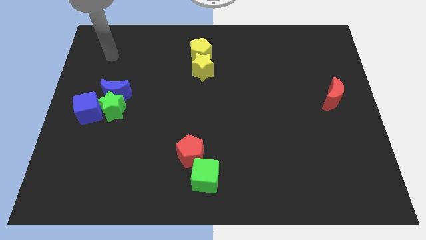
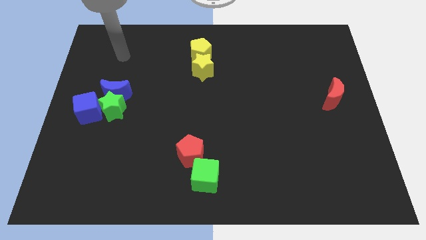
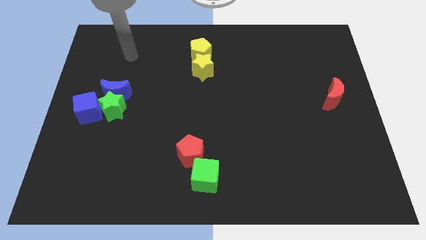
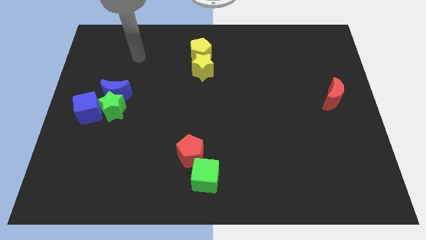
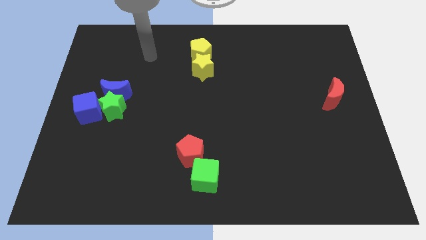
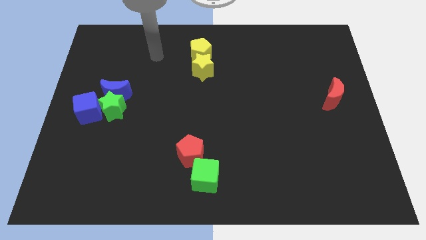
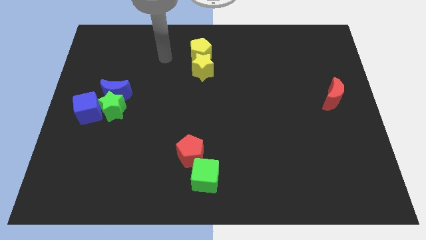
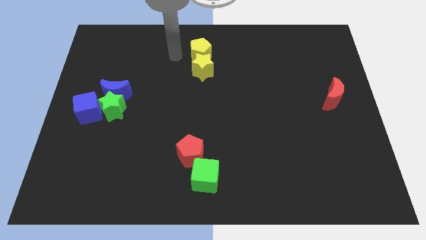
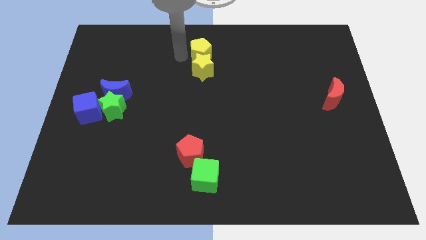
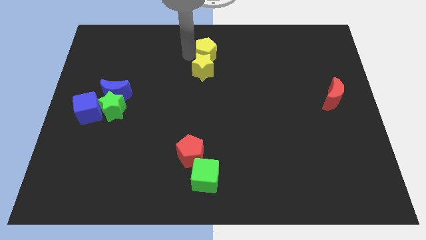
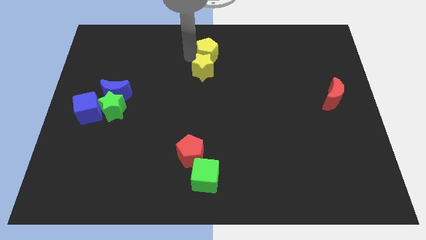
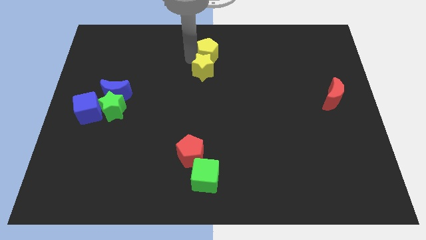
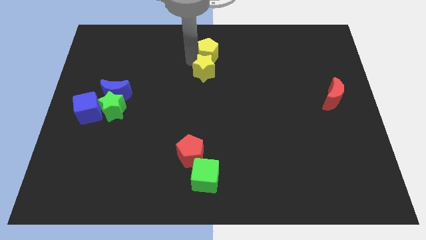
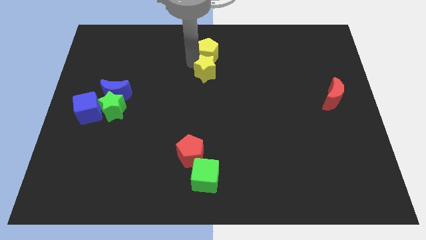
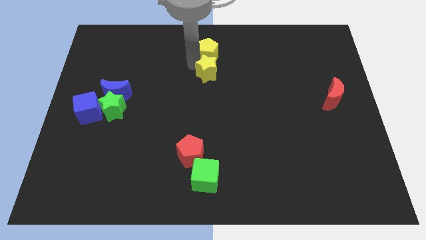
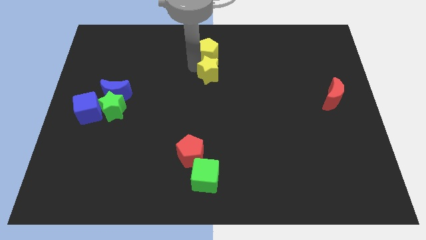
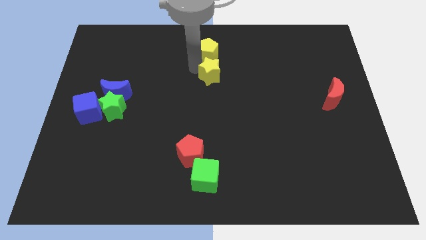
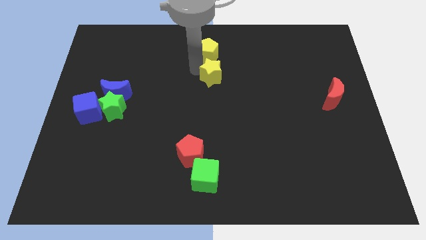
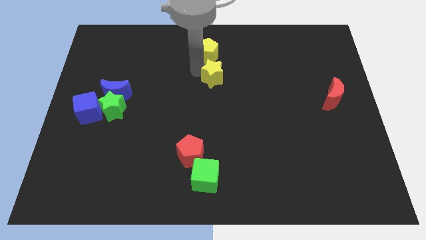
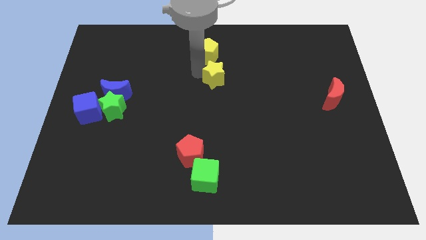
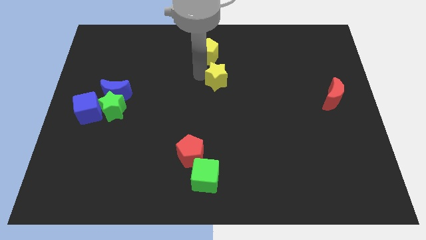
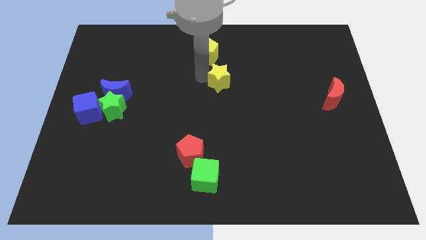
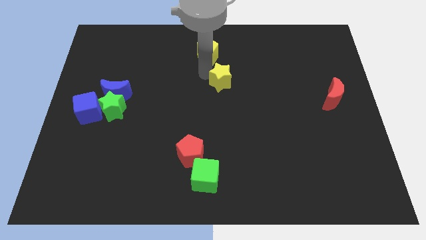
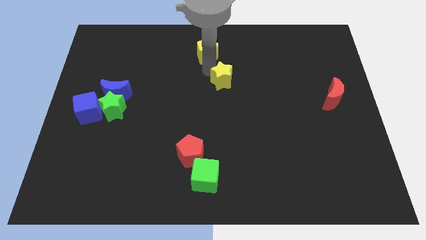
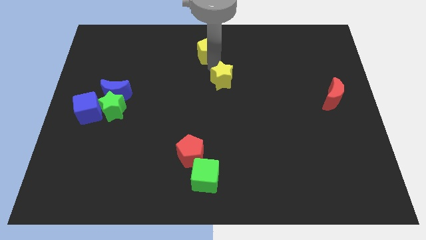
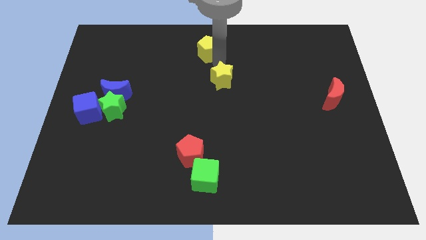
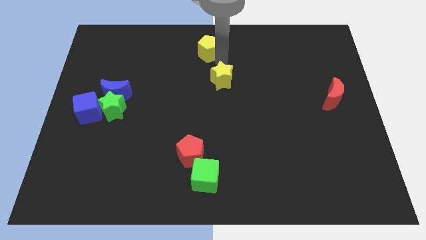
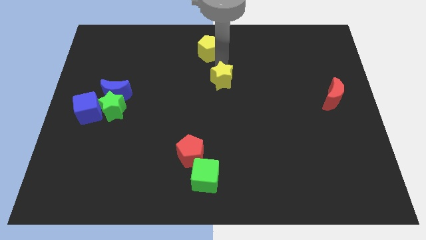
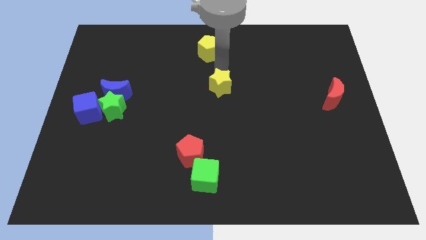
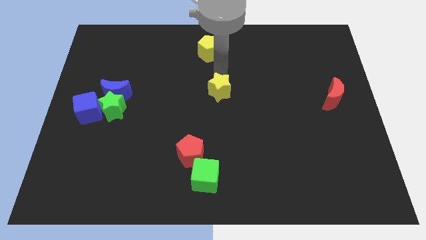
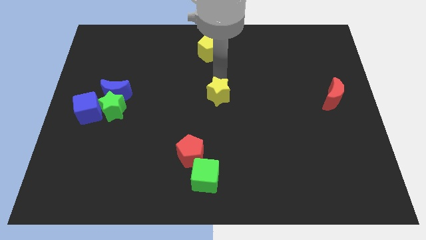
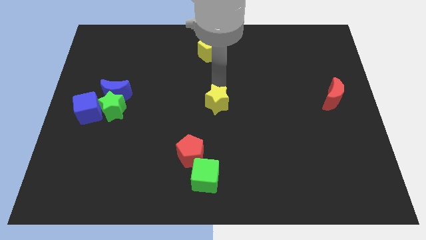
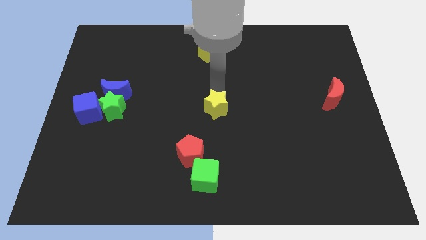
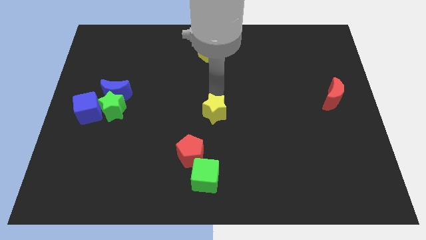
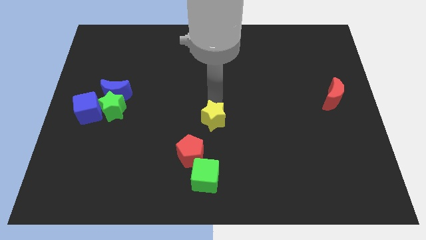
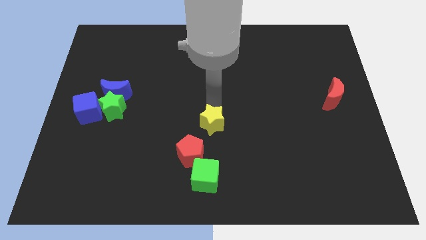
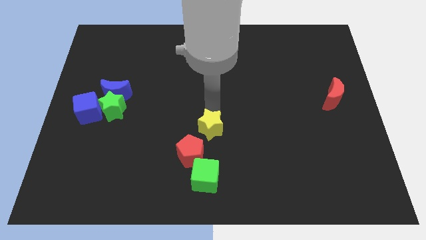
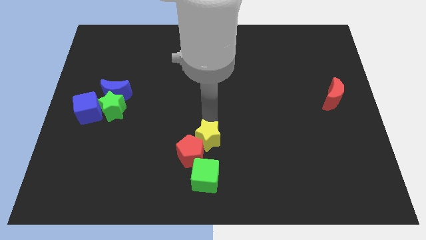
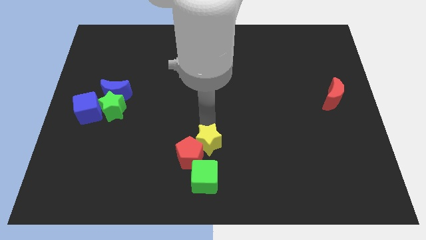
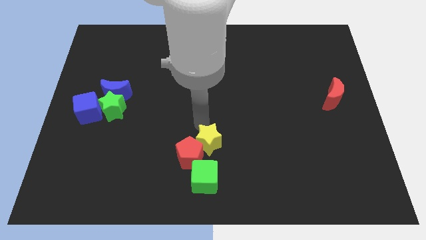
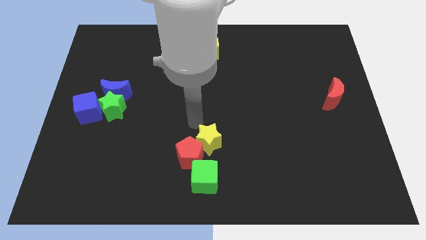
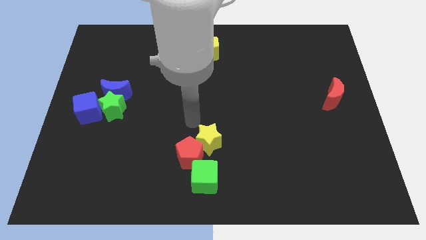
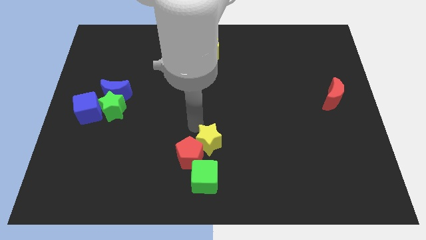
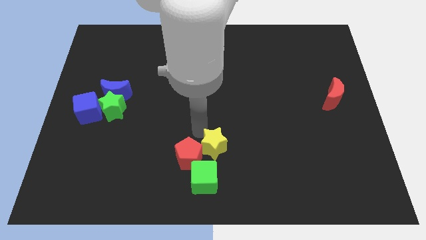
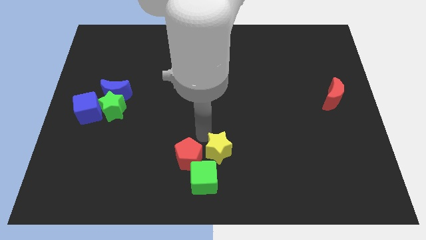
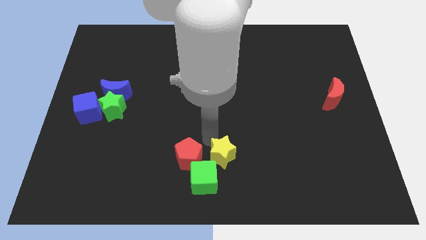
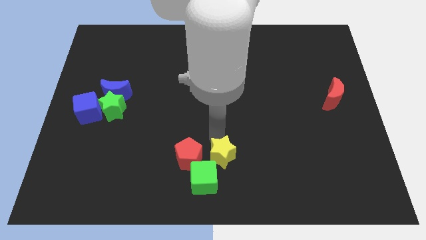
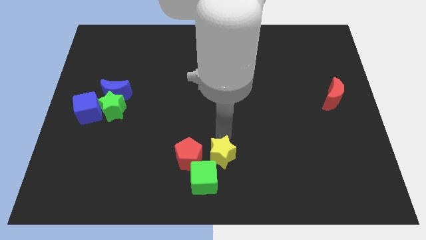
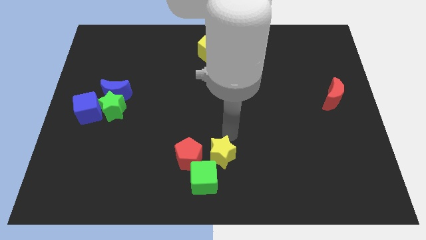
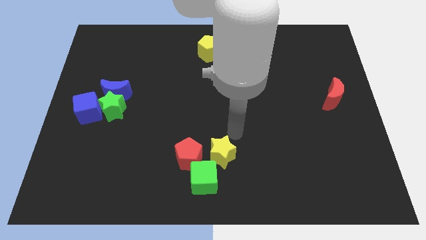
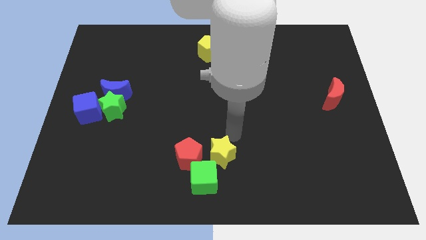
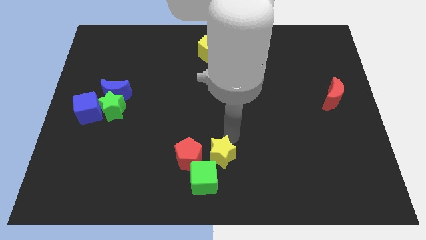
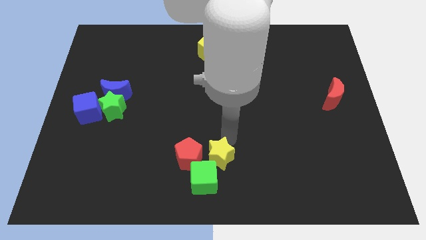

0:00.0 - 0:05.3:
slide the yellow star towards the green cube

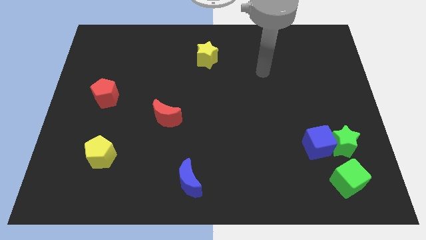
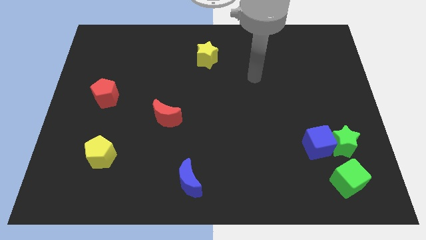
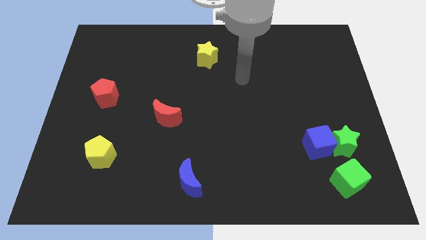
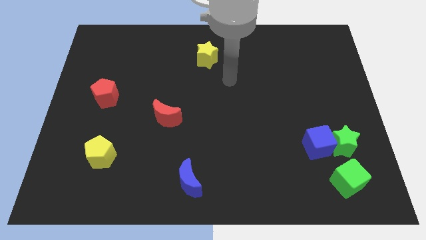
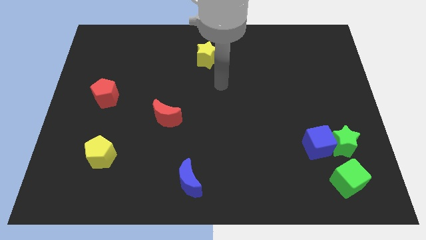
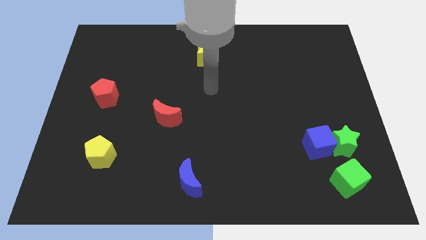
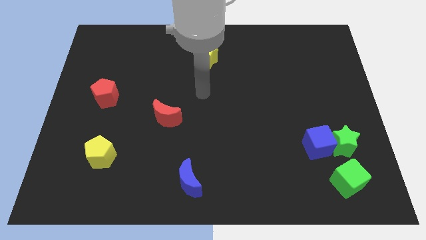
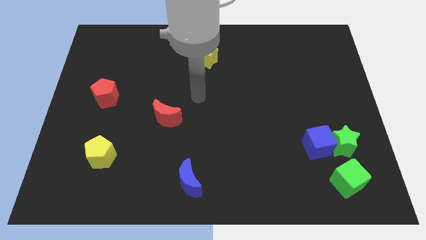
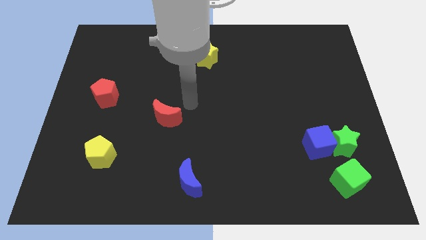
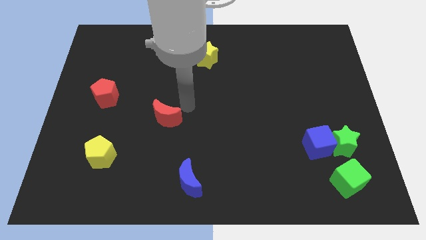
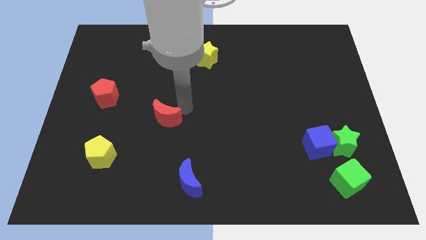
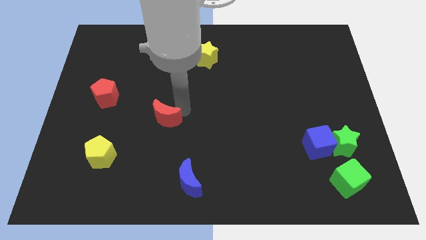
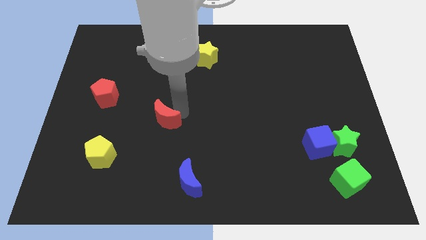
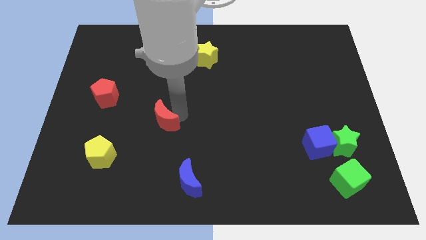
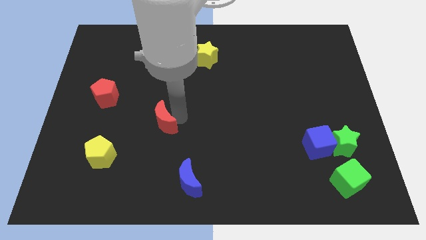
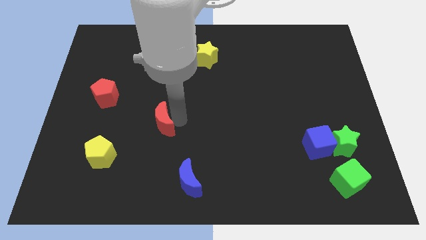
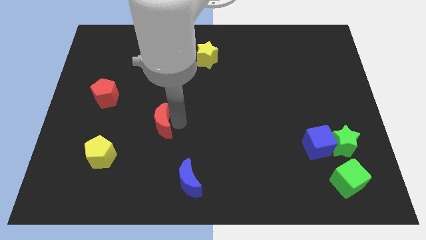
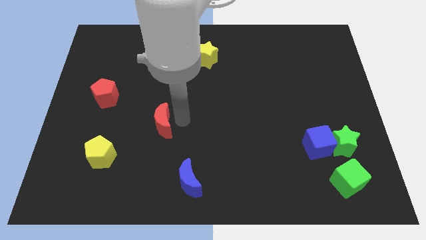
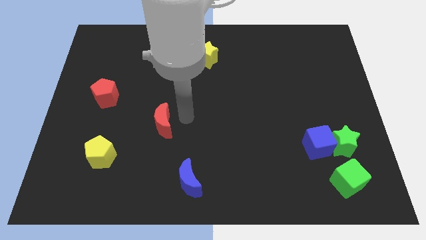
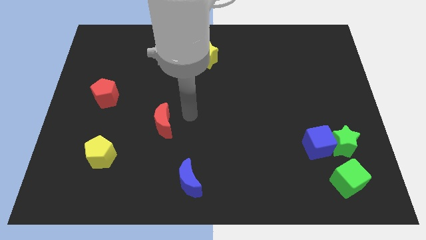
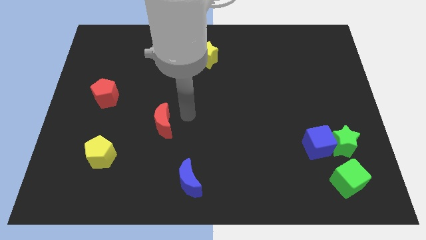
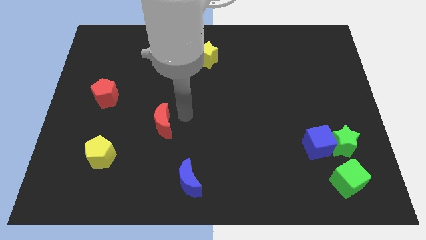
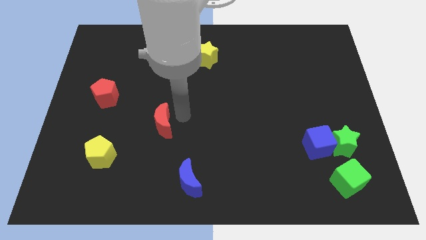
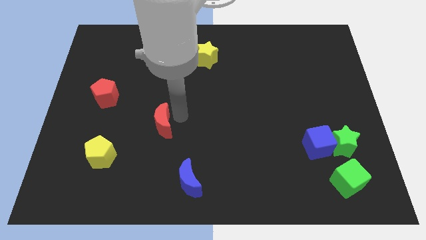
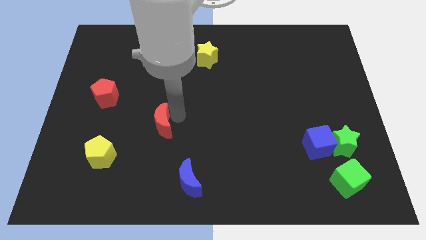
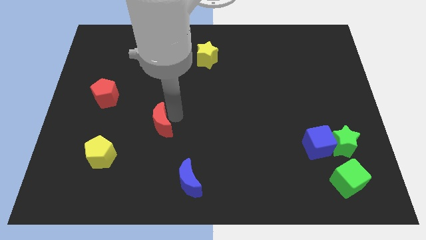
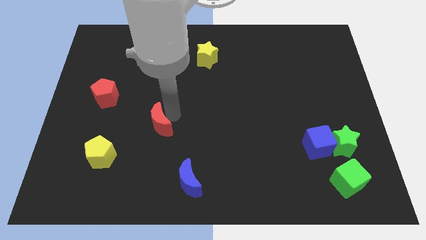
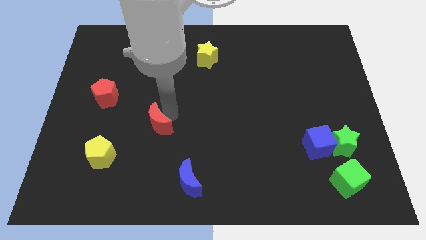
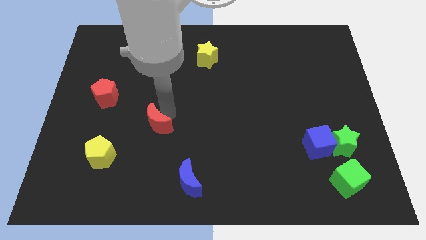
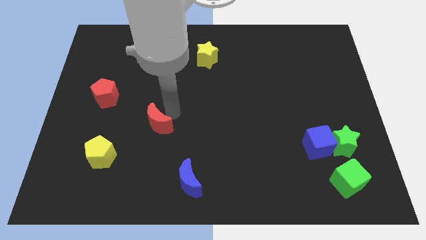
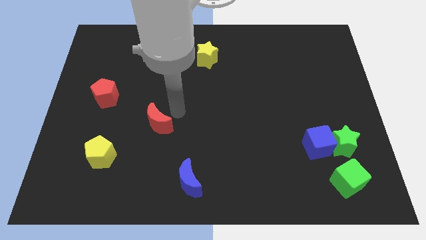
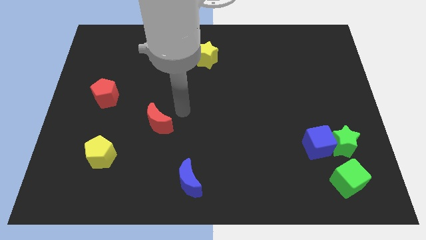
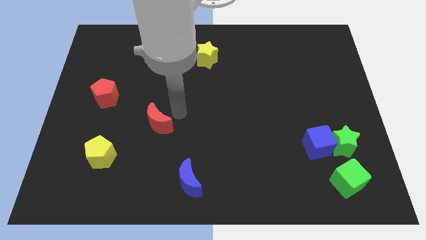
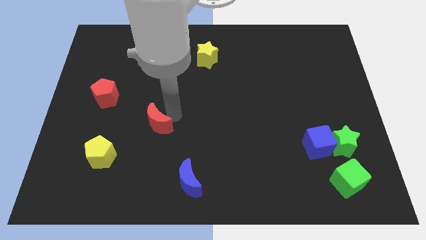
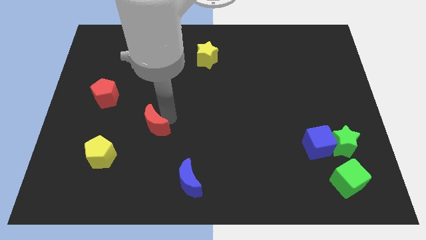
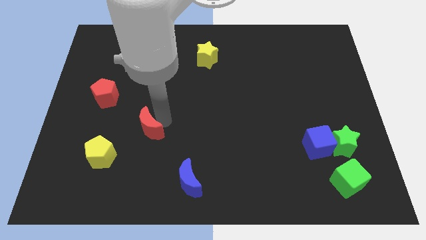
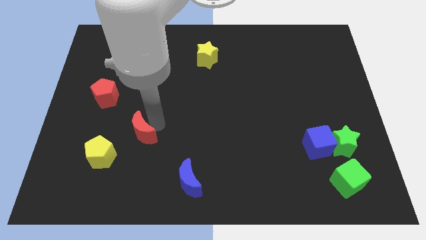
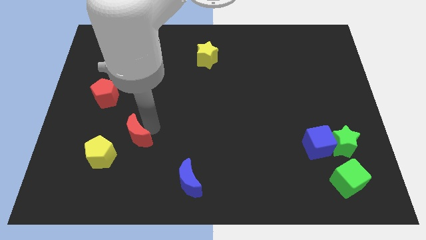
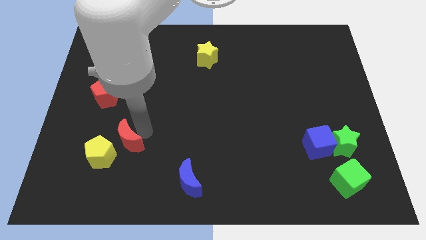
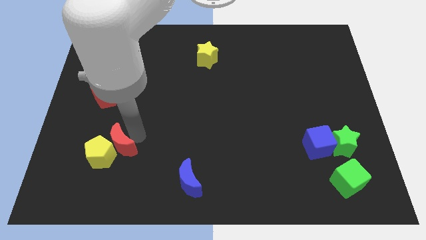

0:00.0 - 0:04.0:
put the red moon close to the yellow pentagon
